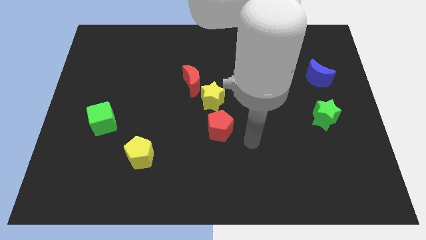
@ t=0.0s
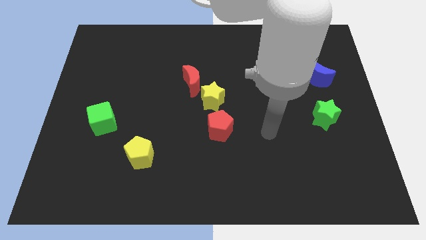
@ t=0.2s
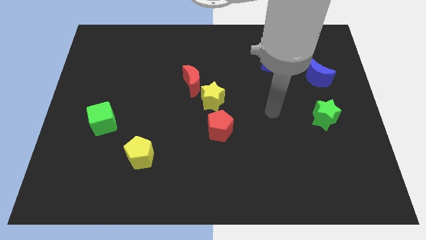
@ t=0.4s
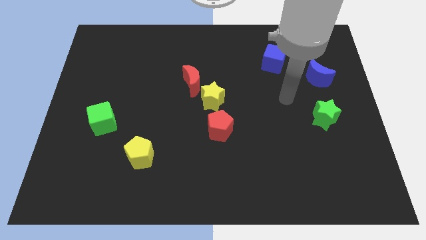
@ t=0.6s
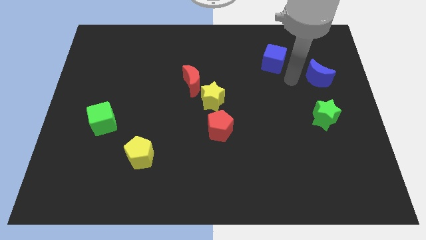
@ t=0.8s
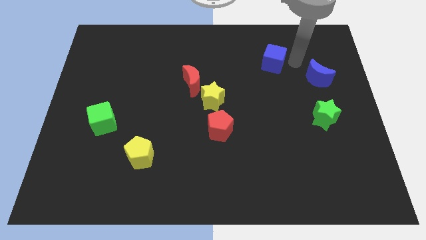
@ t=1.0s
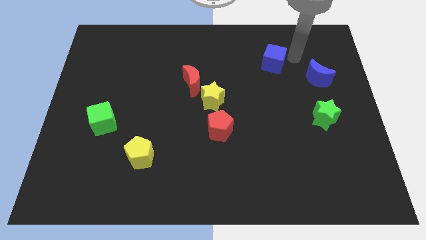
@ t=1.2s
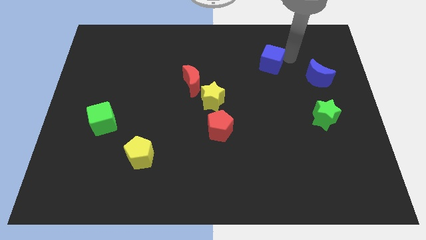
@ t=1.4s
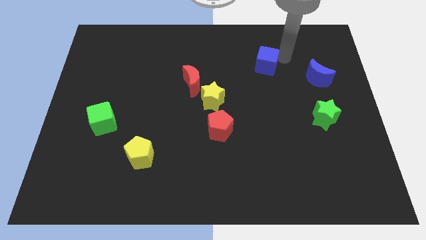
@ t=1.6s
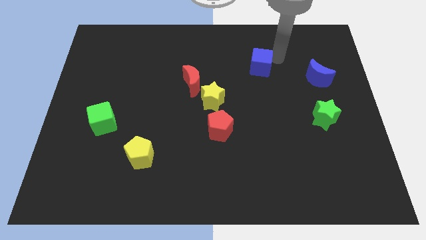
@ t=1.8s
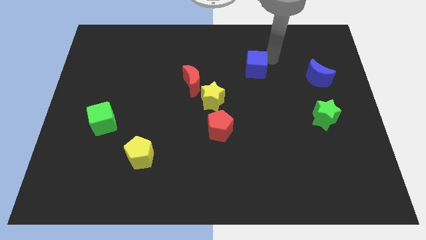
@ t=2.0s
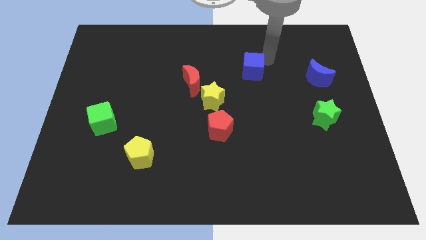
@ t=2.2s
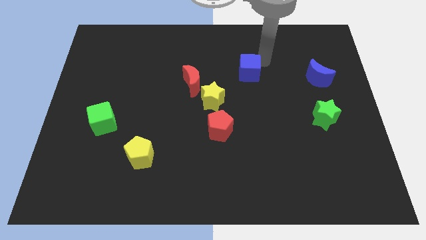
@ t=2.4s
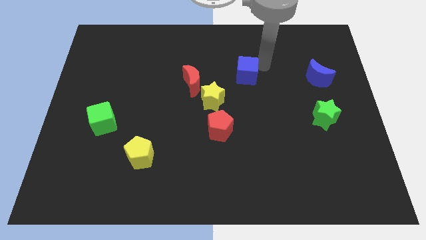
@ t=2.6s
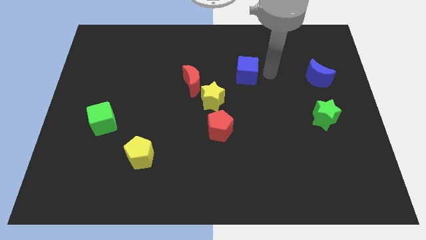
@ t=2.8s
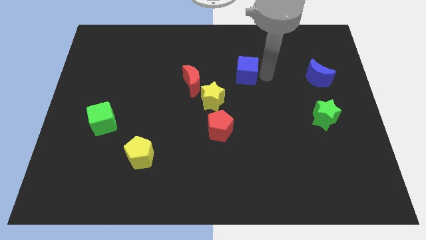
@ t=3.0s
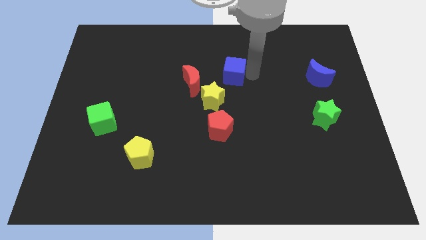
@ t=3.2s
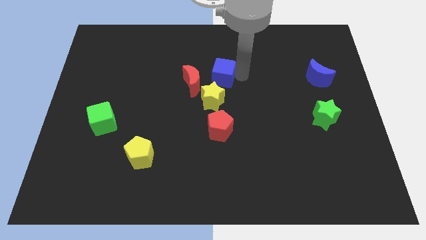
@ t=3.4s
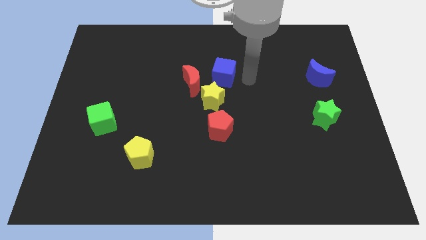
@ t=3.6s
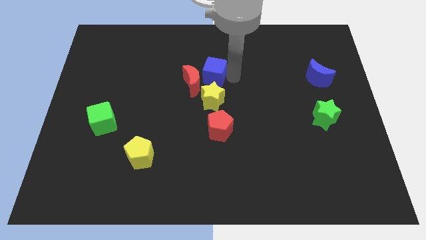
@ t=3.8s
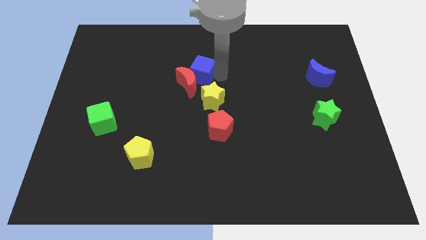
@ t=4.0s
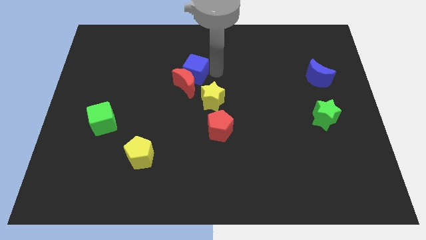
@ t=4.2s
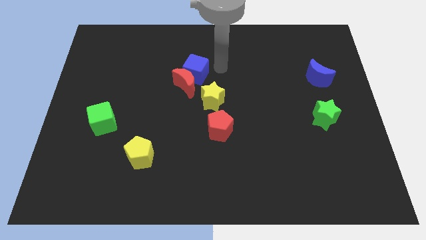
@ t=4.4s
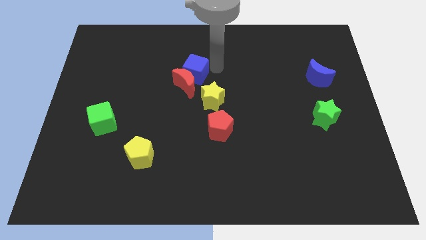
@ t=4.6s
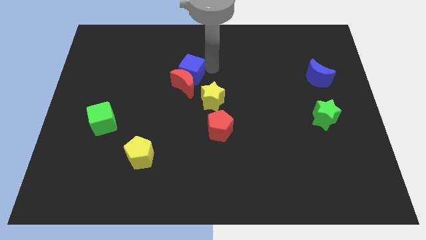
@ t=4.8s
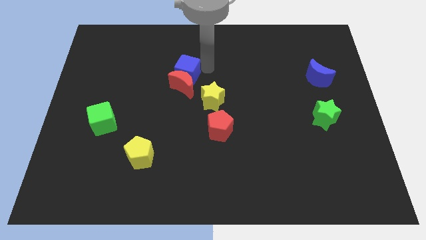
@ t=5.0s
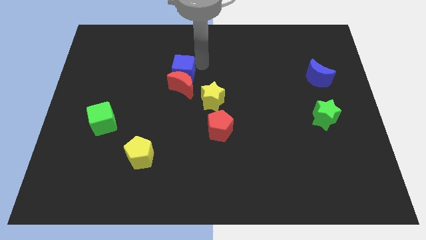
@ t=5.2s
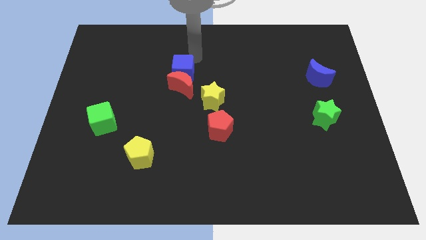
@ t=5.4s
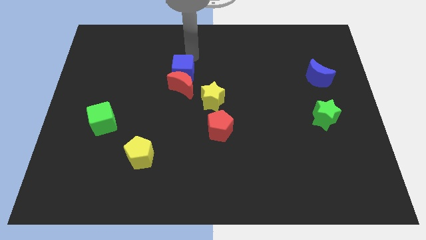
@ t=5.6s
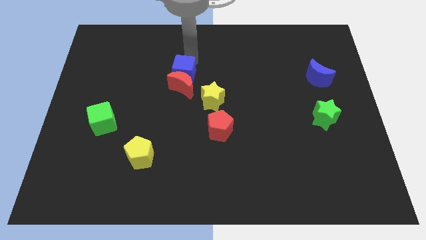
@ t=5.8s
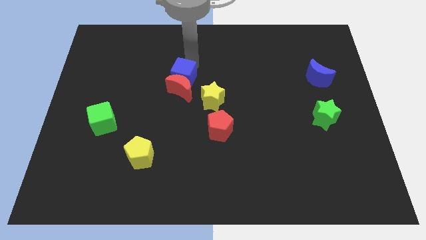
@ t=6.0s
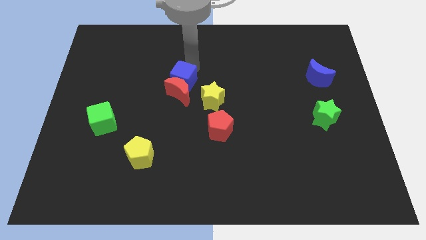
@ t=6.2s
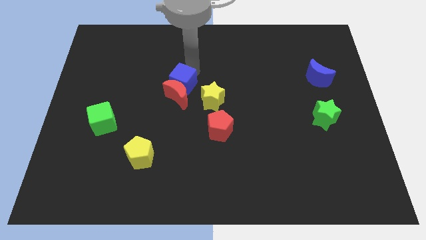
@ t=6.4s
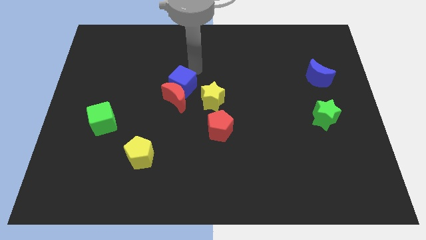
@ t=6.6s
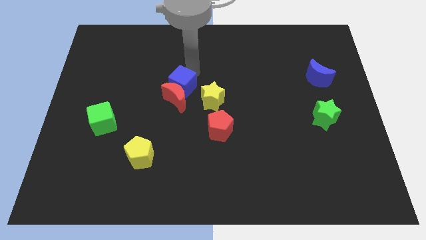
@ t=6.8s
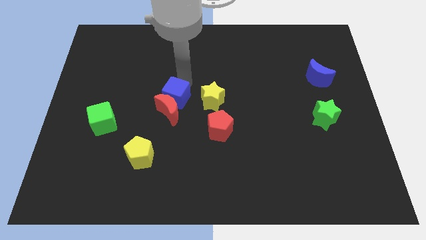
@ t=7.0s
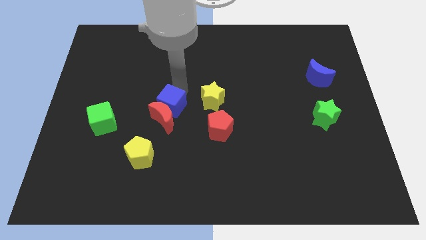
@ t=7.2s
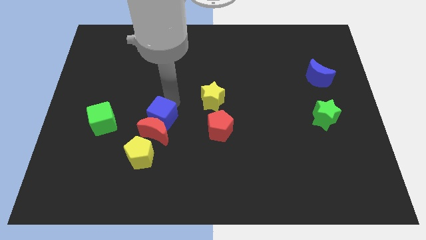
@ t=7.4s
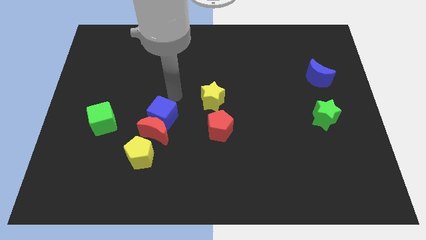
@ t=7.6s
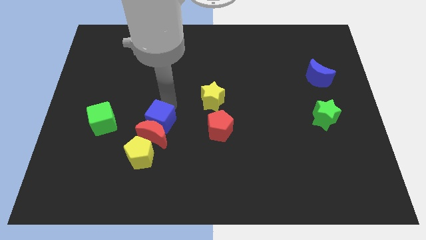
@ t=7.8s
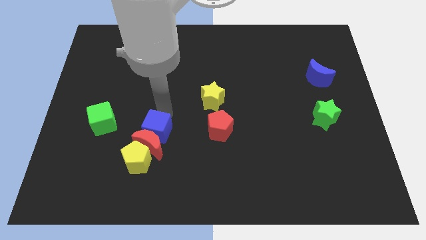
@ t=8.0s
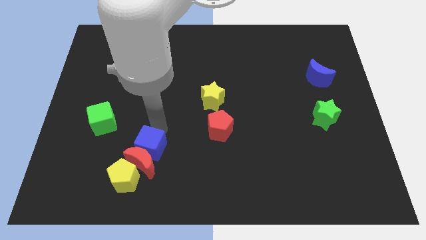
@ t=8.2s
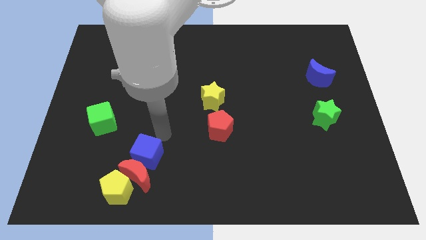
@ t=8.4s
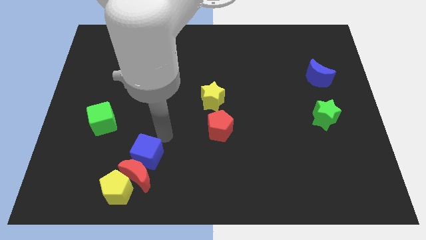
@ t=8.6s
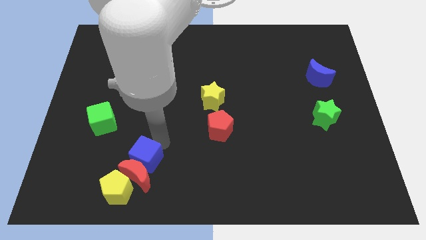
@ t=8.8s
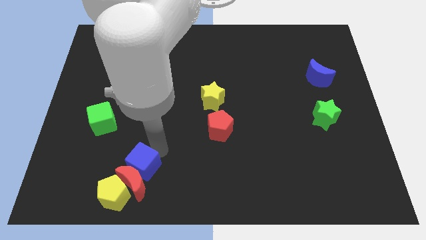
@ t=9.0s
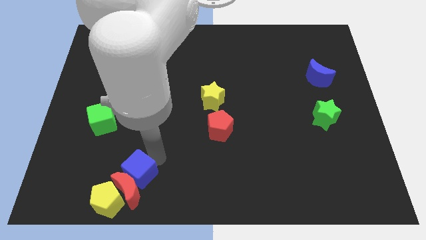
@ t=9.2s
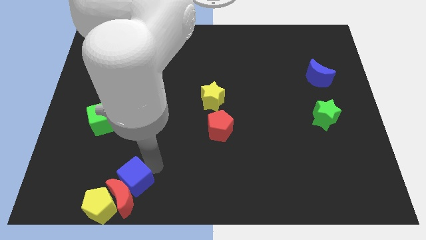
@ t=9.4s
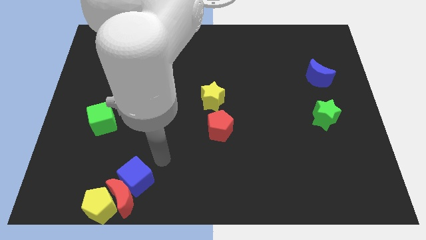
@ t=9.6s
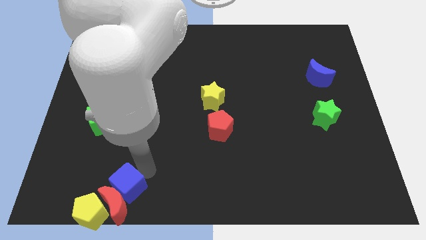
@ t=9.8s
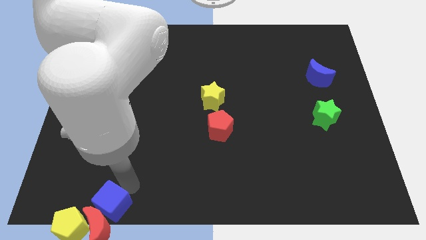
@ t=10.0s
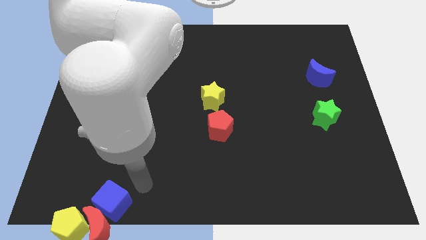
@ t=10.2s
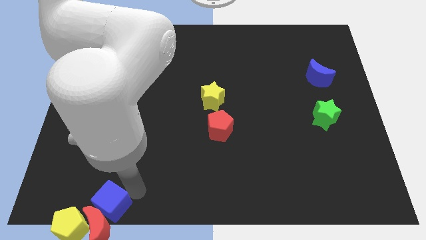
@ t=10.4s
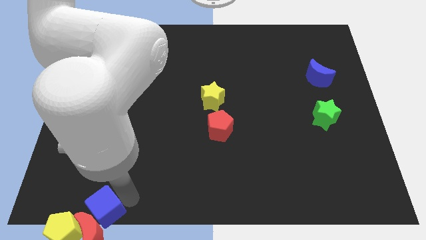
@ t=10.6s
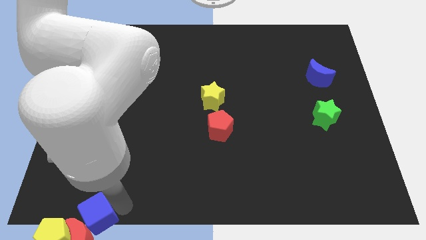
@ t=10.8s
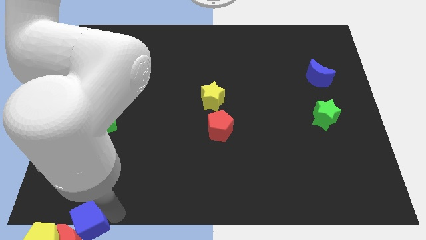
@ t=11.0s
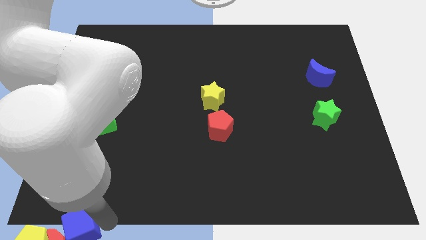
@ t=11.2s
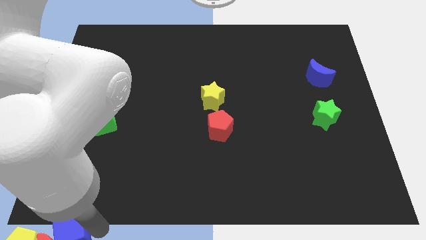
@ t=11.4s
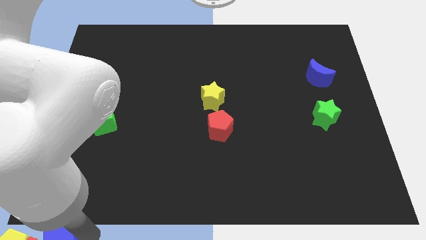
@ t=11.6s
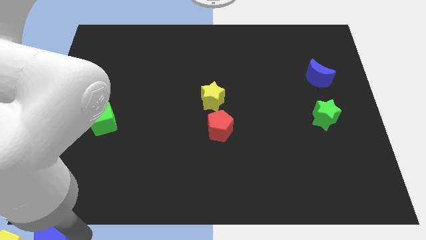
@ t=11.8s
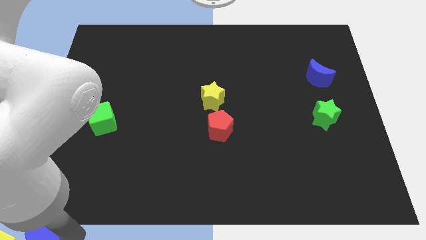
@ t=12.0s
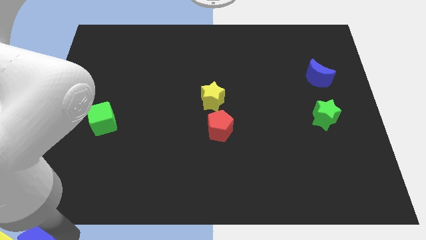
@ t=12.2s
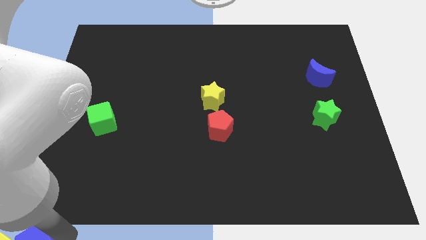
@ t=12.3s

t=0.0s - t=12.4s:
slide the blue cube to the yellow pentagon

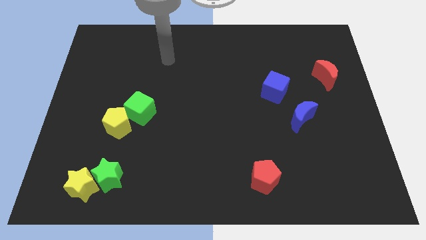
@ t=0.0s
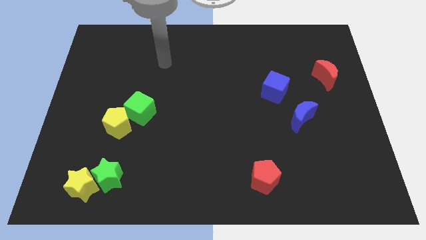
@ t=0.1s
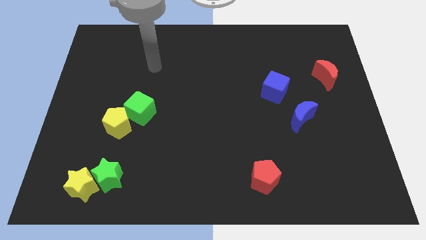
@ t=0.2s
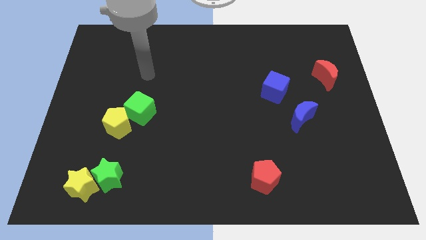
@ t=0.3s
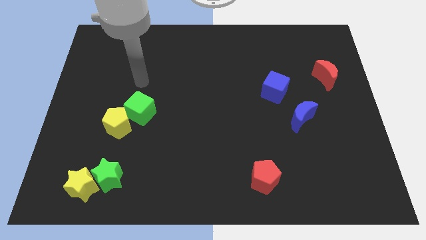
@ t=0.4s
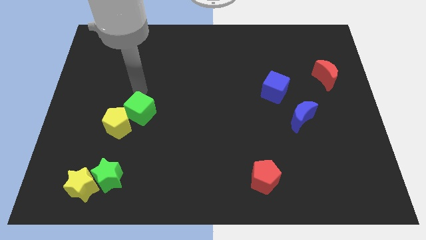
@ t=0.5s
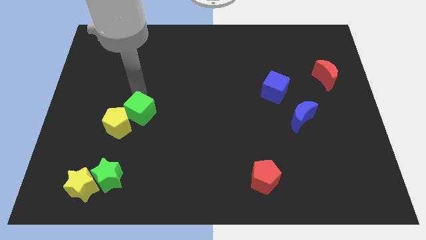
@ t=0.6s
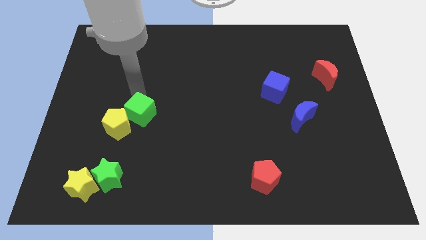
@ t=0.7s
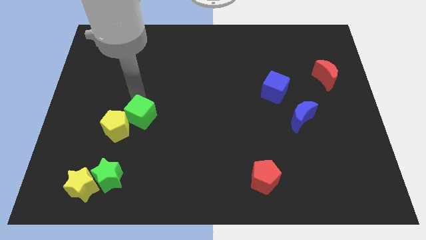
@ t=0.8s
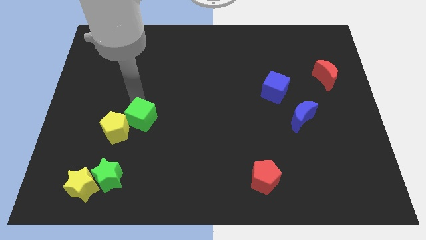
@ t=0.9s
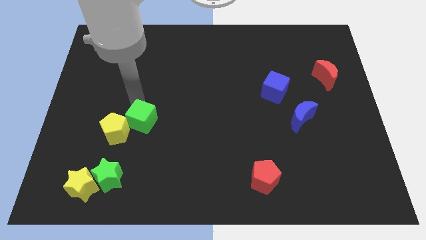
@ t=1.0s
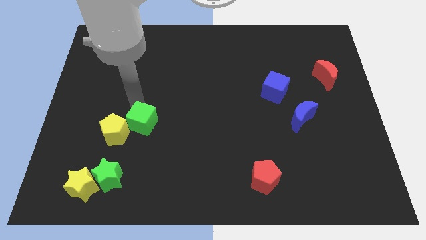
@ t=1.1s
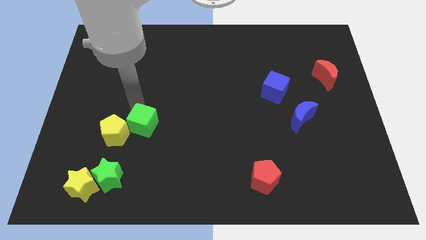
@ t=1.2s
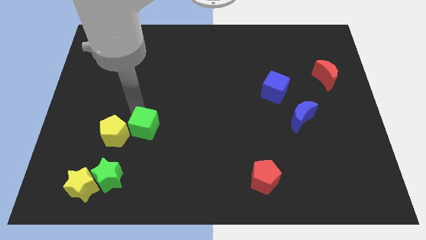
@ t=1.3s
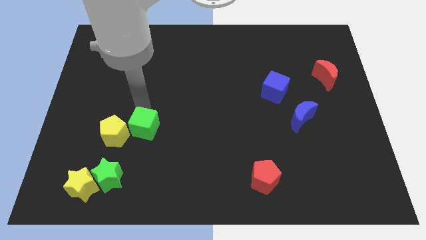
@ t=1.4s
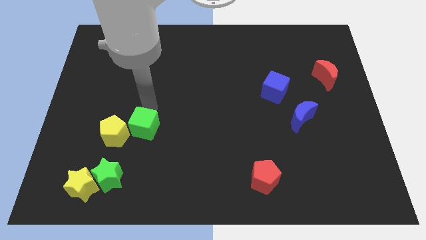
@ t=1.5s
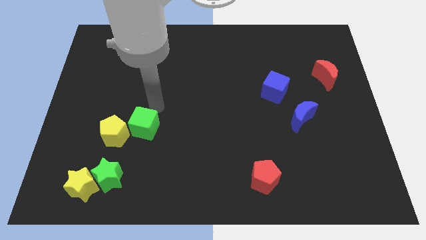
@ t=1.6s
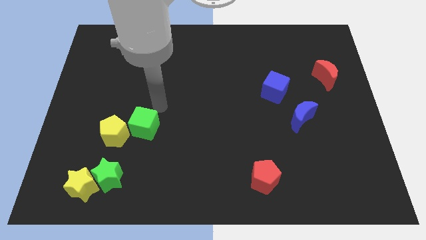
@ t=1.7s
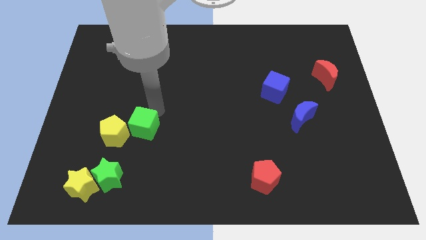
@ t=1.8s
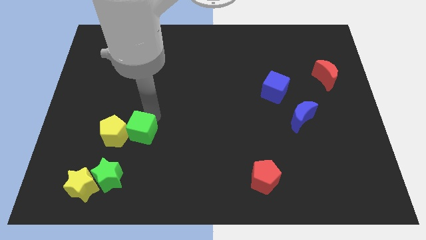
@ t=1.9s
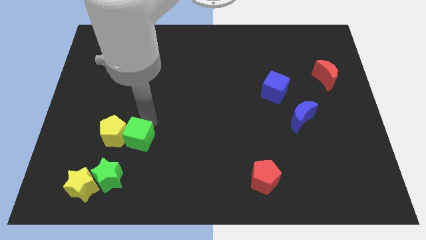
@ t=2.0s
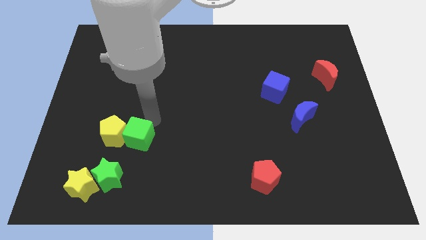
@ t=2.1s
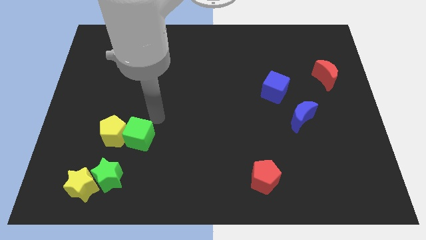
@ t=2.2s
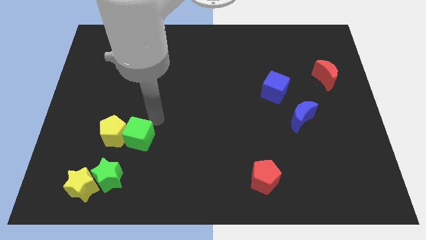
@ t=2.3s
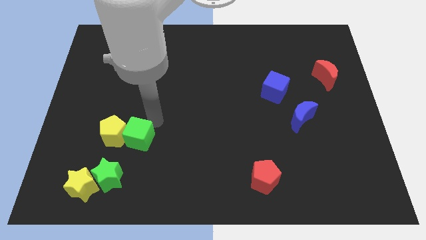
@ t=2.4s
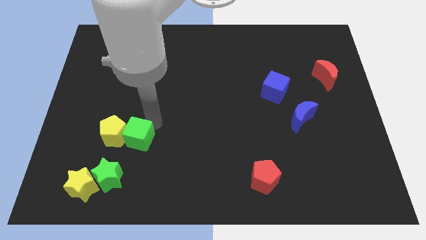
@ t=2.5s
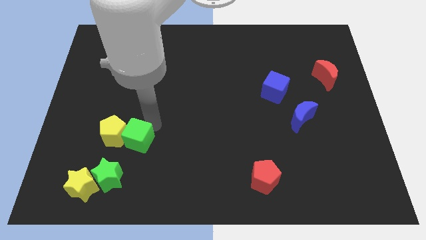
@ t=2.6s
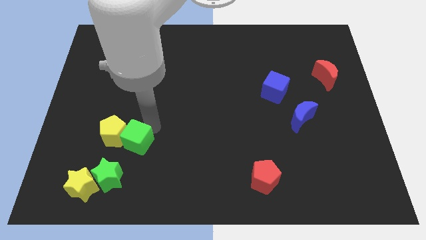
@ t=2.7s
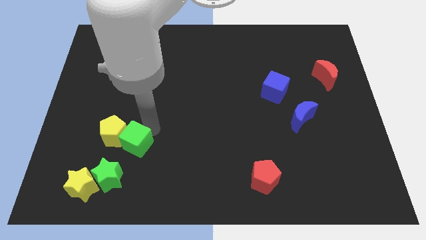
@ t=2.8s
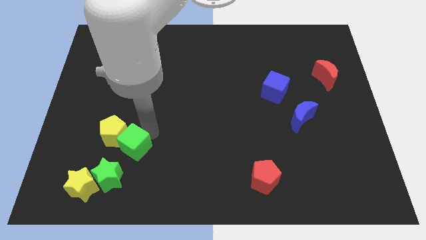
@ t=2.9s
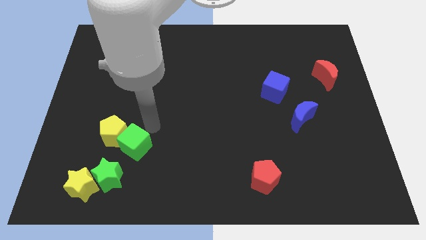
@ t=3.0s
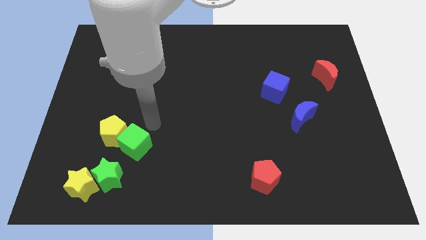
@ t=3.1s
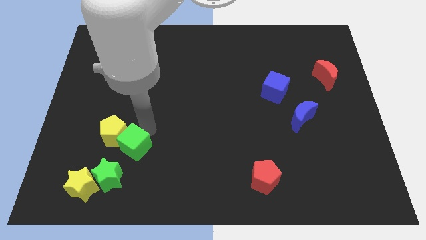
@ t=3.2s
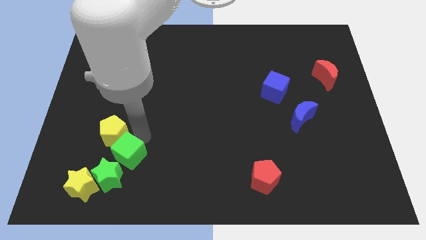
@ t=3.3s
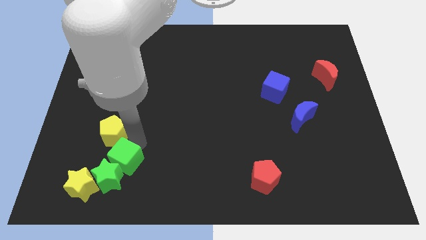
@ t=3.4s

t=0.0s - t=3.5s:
put the green cube close to the green star
